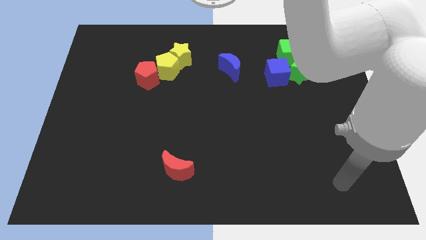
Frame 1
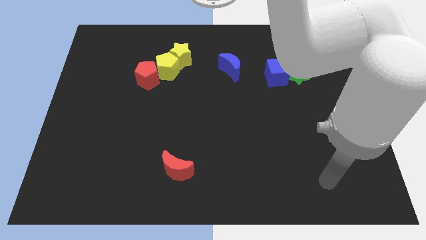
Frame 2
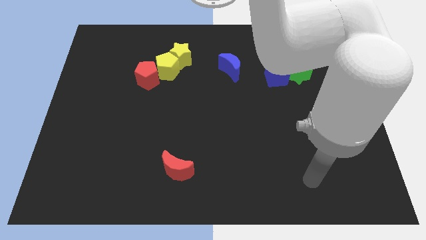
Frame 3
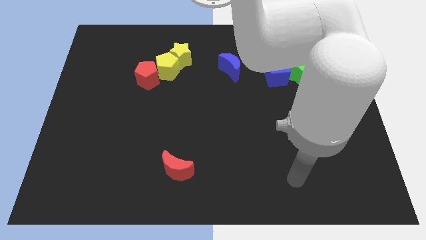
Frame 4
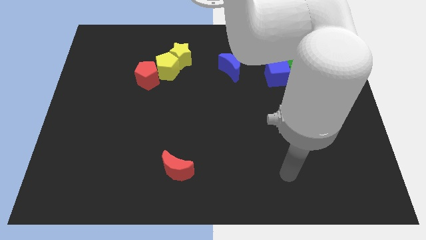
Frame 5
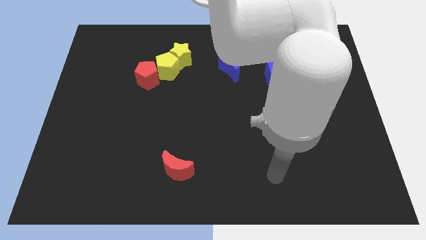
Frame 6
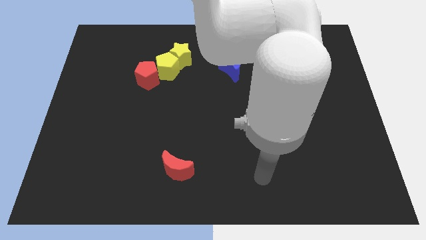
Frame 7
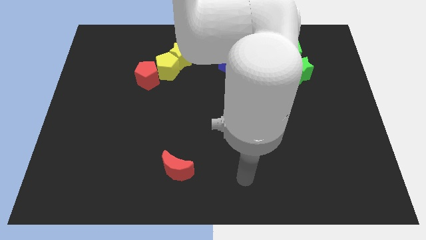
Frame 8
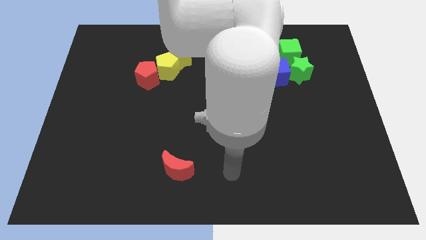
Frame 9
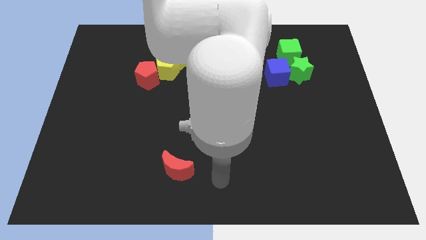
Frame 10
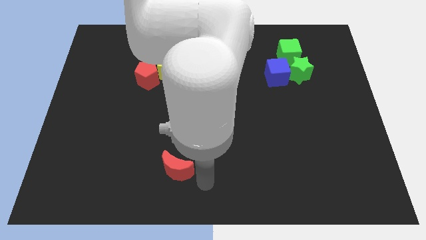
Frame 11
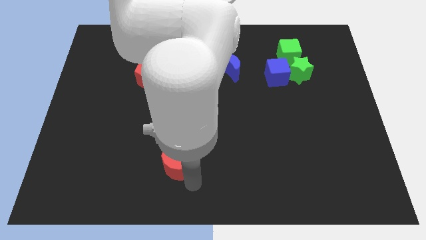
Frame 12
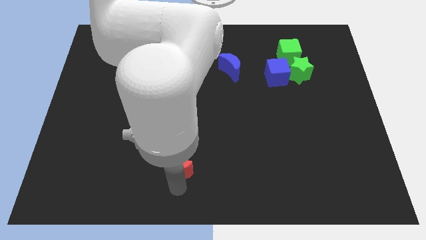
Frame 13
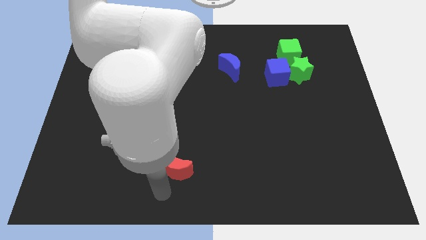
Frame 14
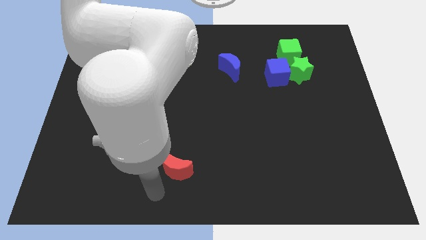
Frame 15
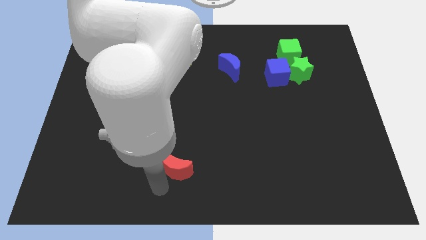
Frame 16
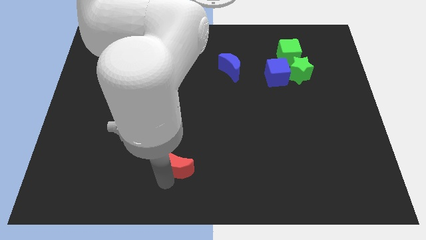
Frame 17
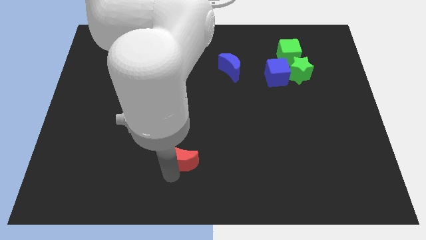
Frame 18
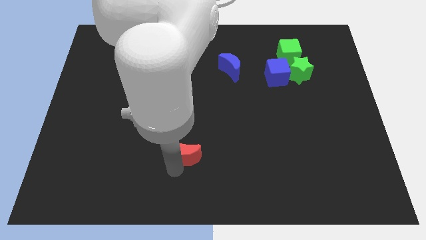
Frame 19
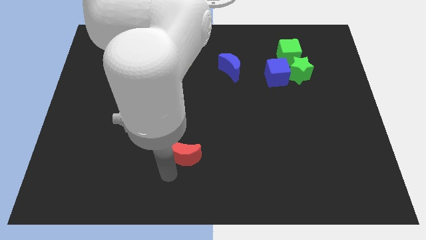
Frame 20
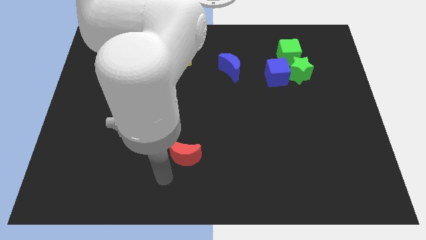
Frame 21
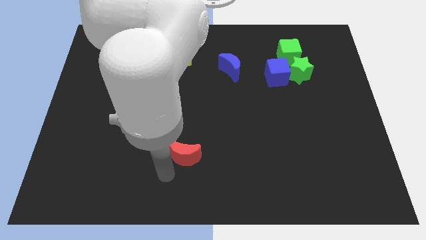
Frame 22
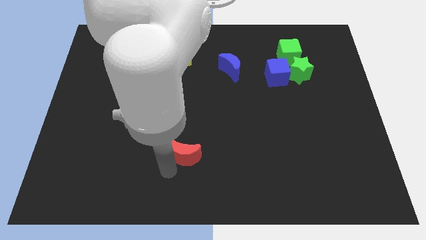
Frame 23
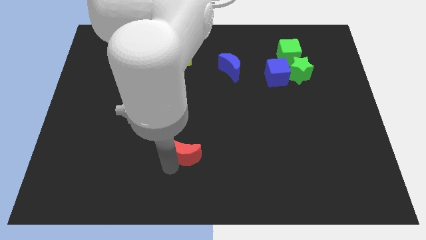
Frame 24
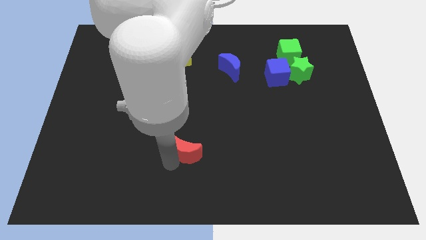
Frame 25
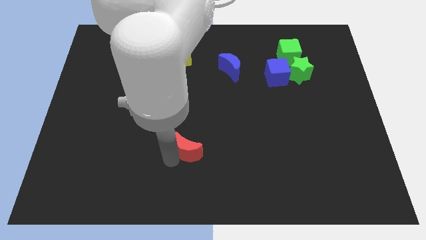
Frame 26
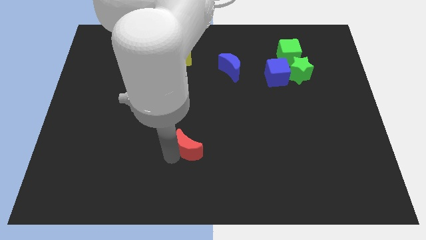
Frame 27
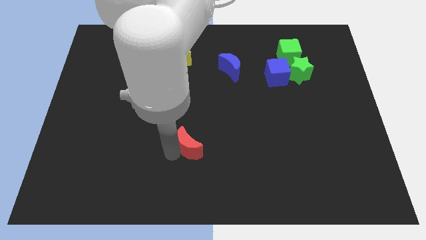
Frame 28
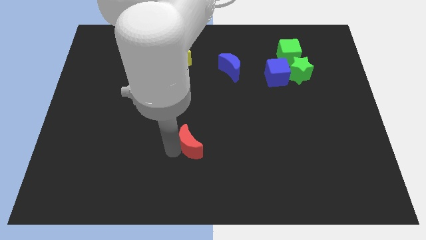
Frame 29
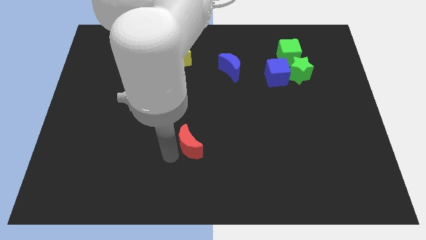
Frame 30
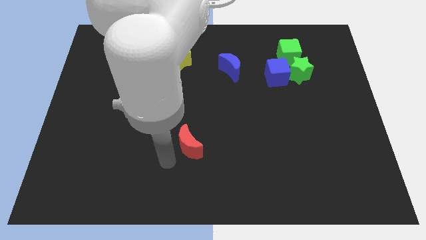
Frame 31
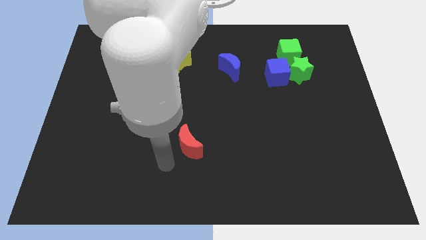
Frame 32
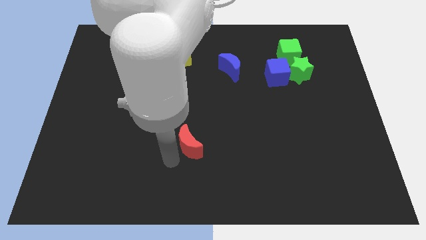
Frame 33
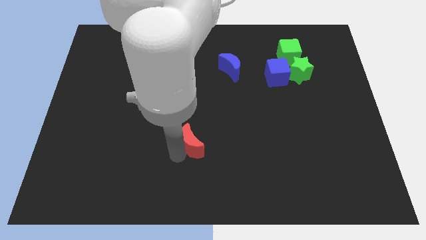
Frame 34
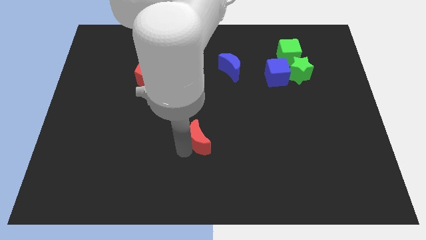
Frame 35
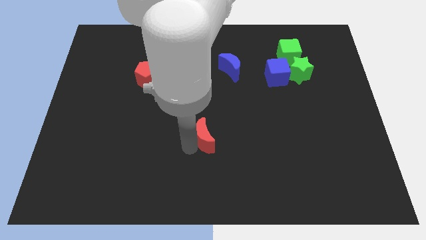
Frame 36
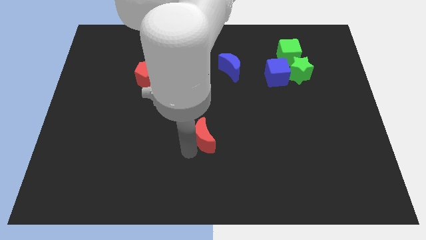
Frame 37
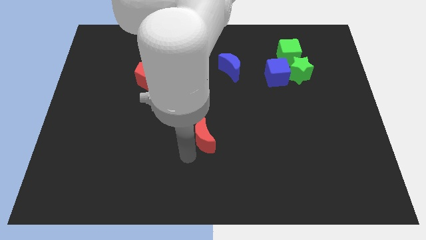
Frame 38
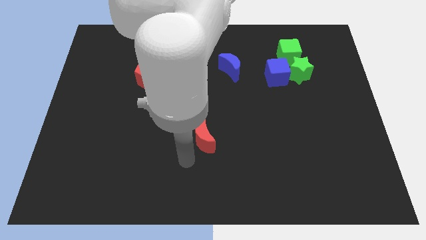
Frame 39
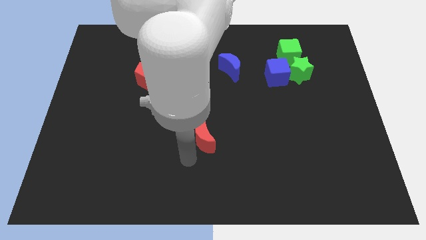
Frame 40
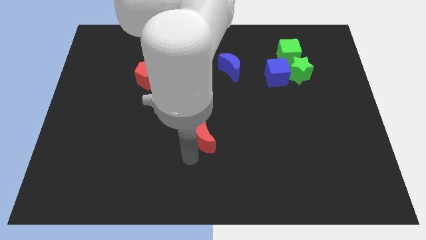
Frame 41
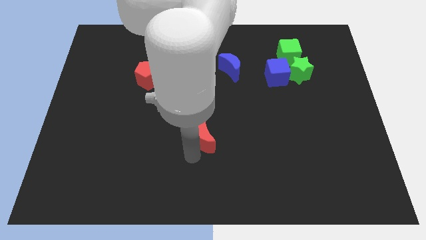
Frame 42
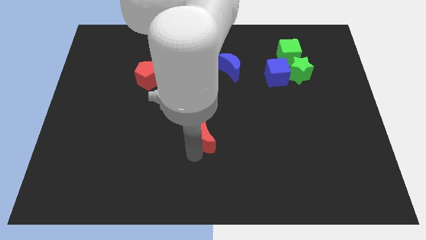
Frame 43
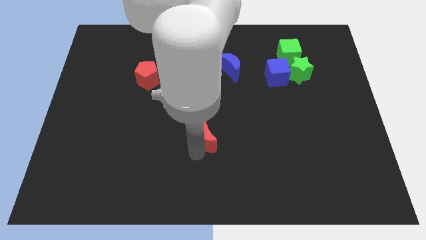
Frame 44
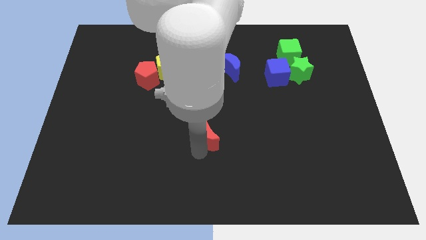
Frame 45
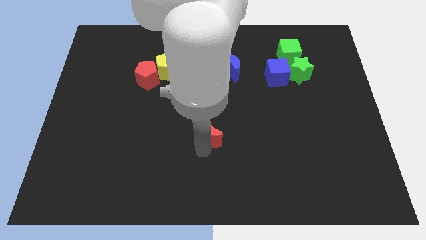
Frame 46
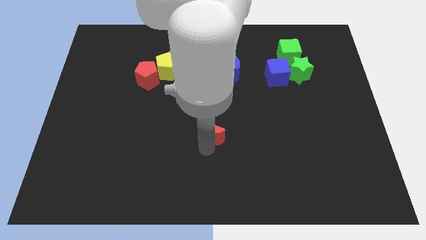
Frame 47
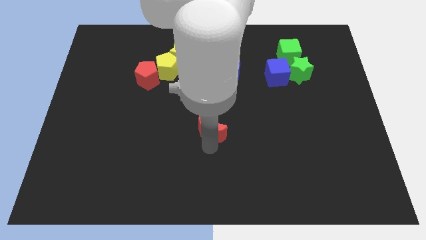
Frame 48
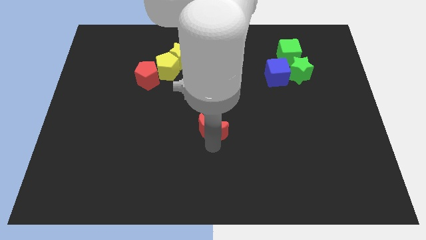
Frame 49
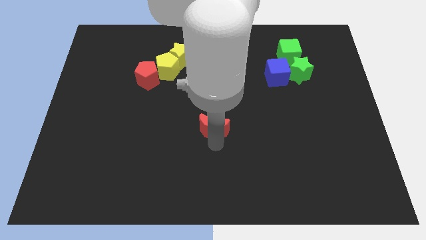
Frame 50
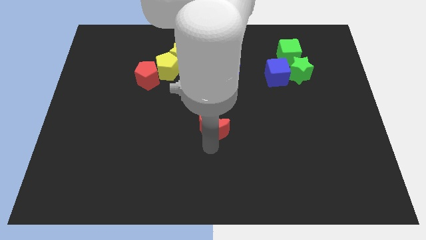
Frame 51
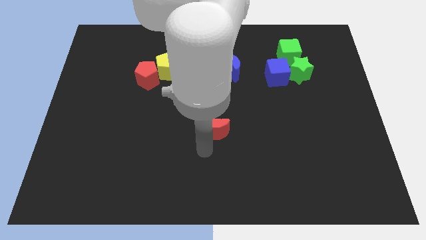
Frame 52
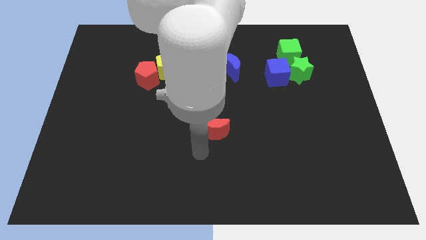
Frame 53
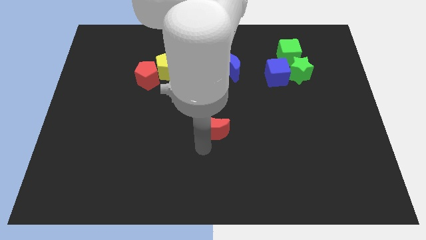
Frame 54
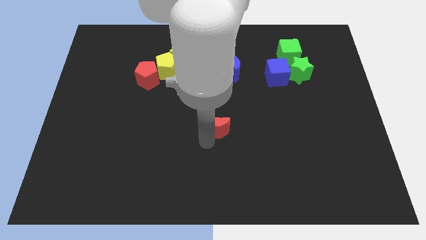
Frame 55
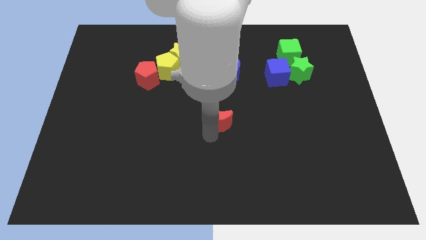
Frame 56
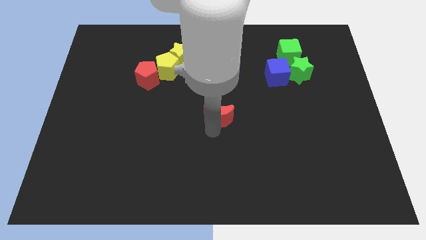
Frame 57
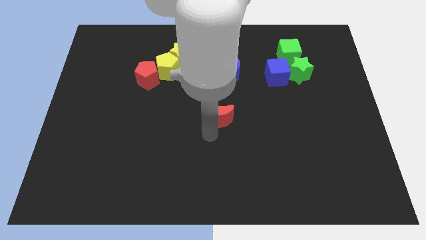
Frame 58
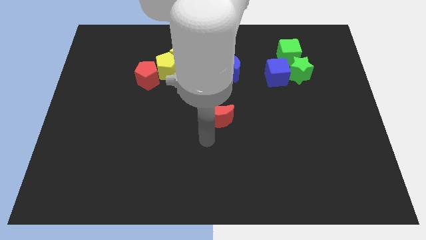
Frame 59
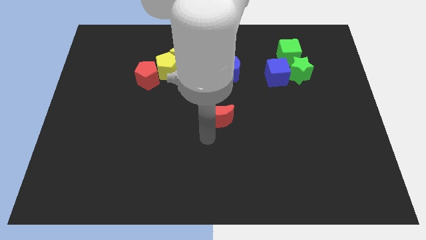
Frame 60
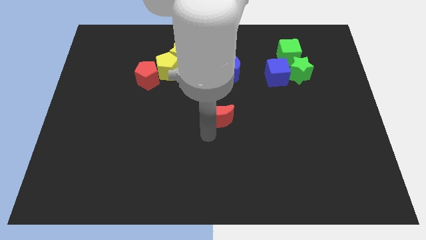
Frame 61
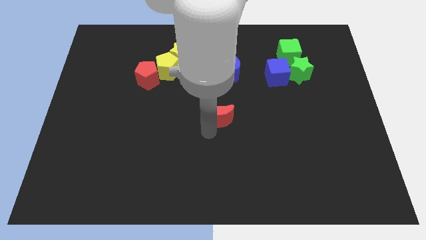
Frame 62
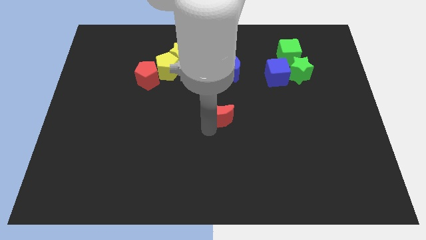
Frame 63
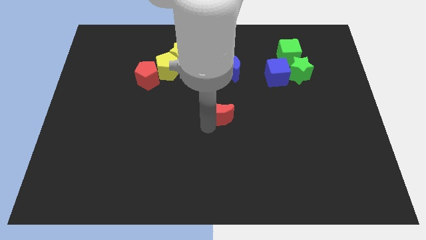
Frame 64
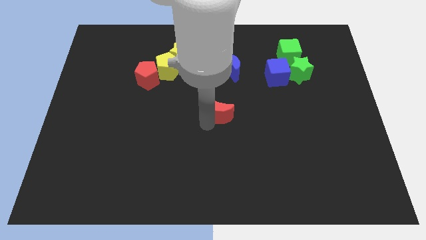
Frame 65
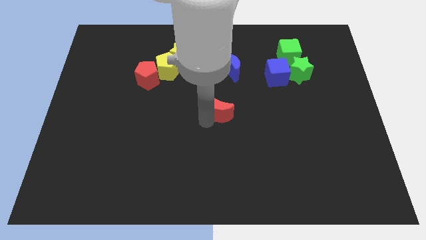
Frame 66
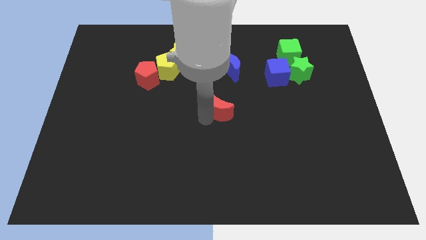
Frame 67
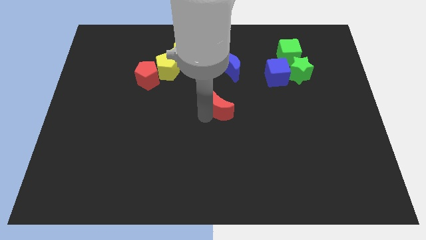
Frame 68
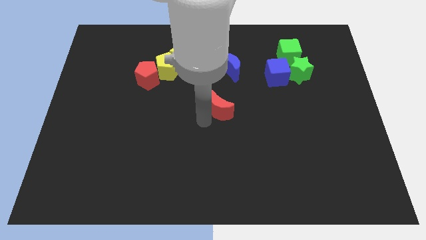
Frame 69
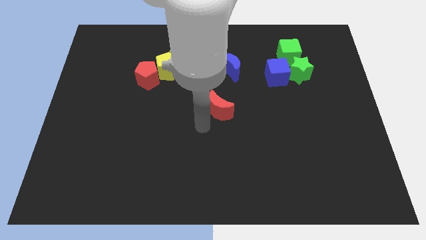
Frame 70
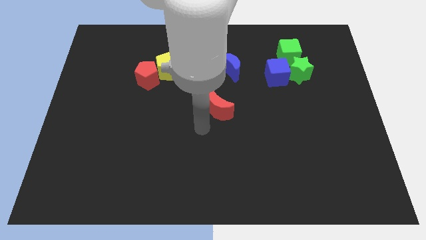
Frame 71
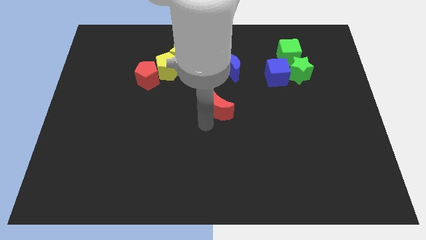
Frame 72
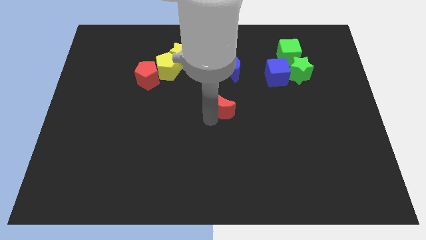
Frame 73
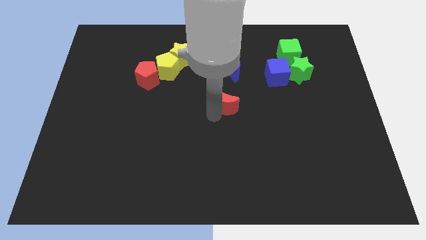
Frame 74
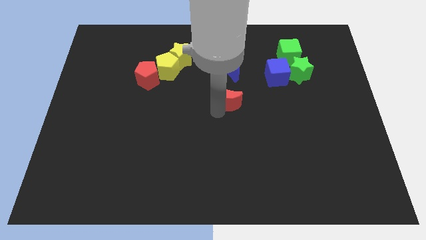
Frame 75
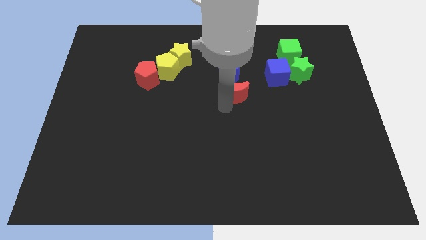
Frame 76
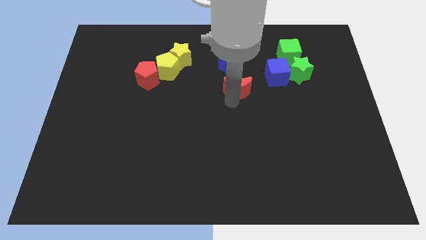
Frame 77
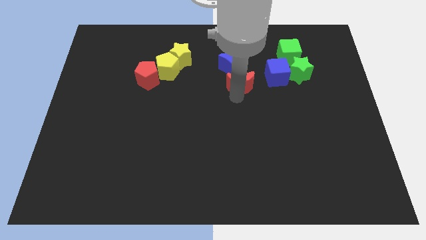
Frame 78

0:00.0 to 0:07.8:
slide the red moon towards the blue moon
